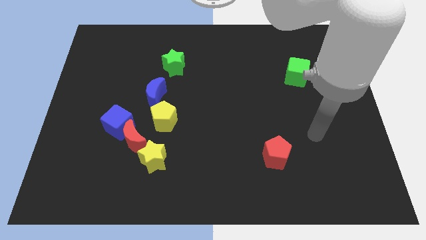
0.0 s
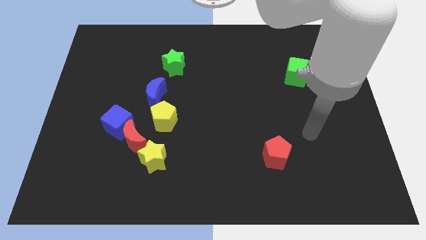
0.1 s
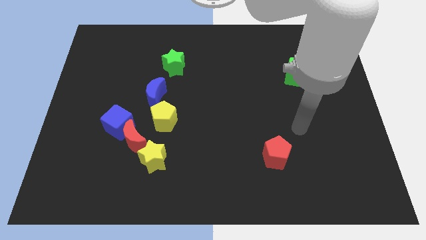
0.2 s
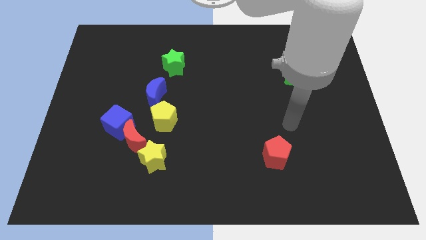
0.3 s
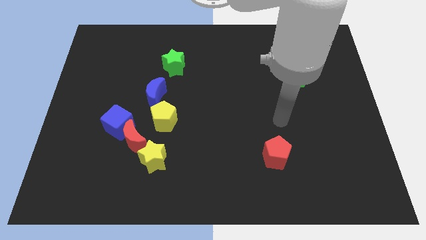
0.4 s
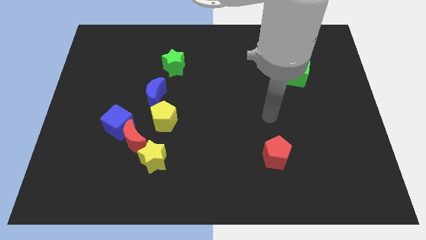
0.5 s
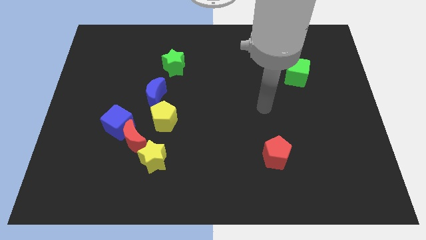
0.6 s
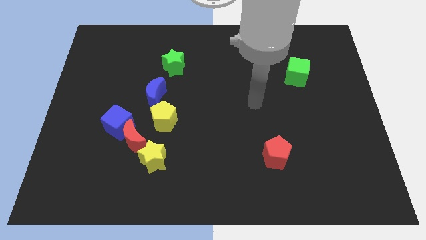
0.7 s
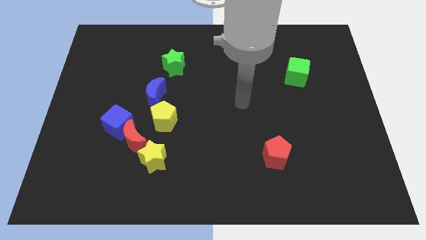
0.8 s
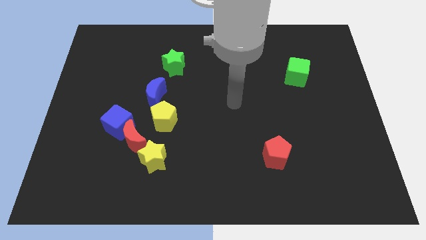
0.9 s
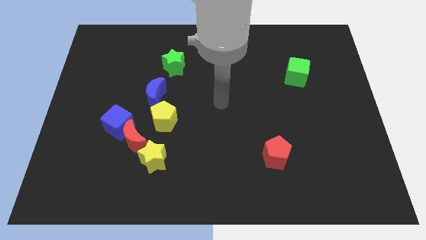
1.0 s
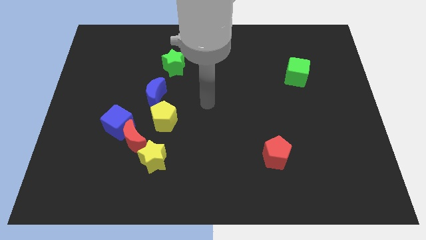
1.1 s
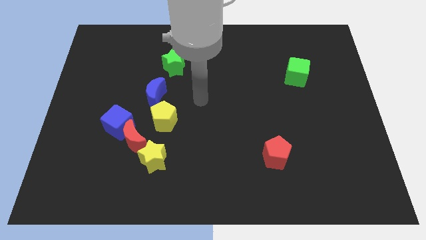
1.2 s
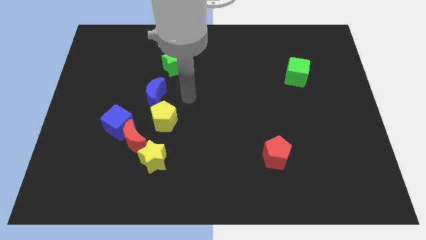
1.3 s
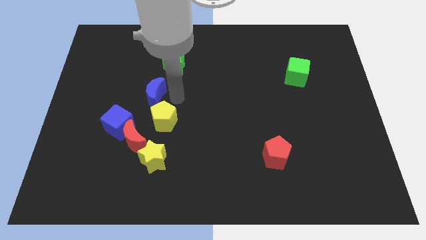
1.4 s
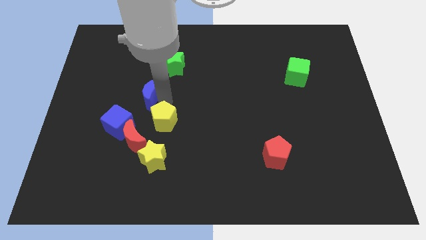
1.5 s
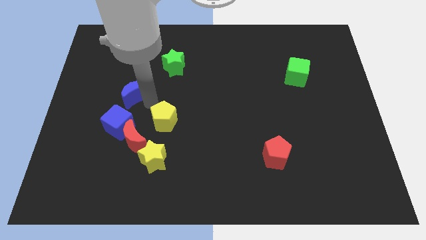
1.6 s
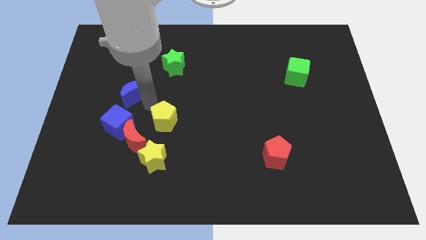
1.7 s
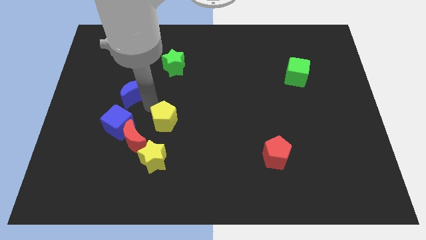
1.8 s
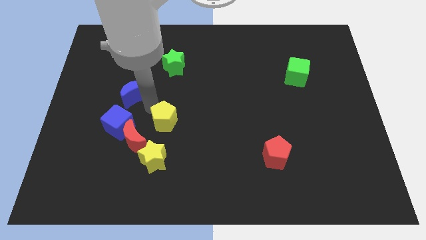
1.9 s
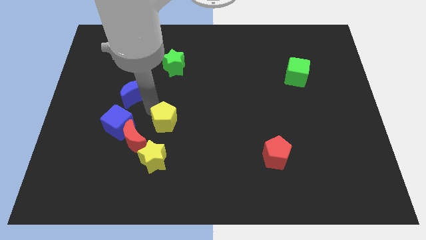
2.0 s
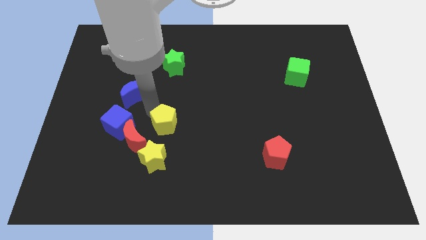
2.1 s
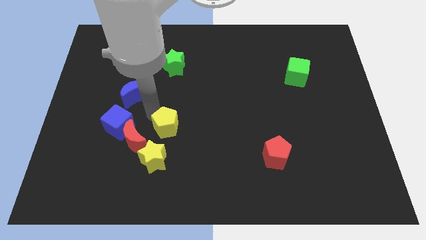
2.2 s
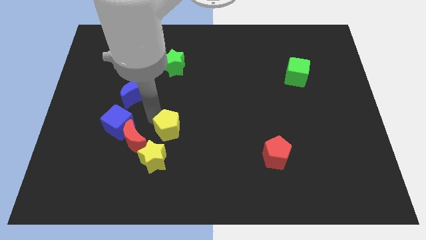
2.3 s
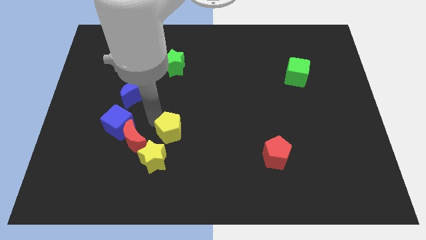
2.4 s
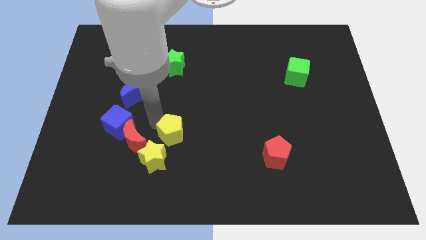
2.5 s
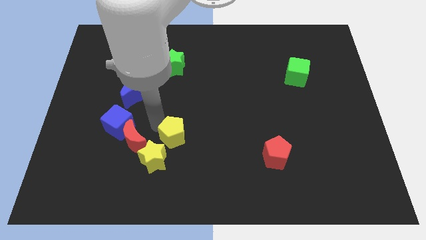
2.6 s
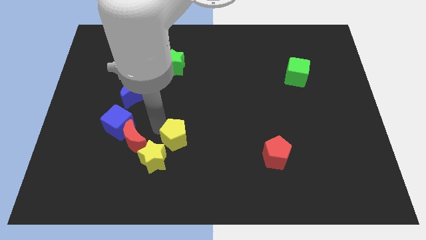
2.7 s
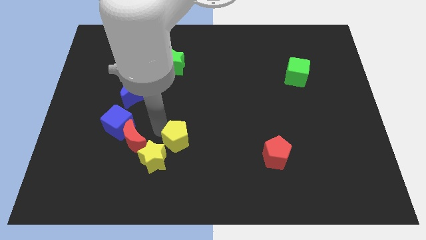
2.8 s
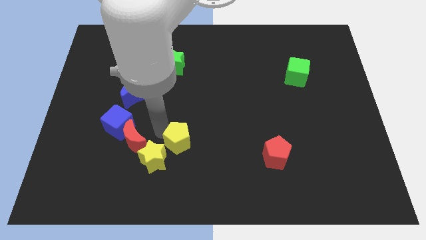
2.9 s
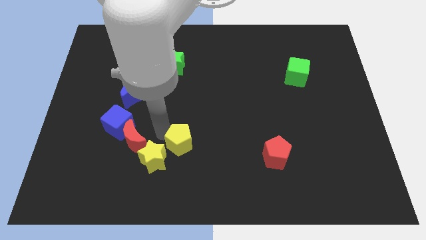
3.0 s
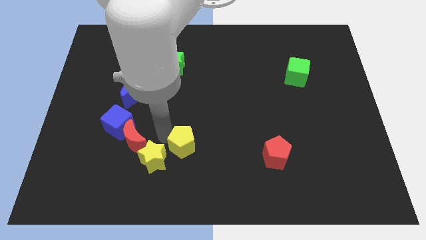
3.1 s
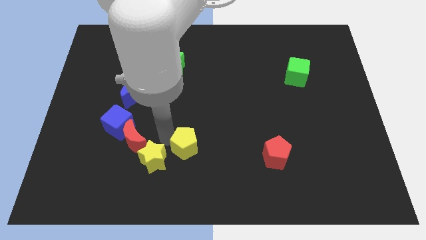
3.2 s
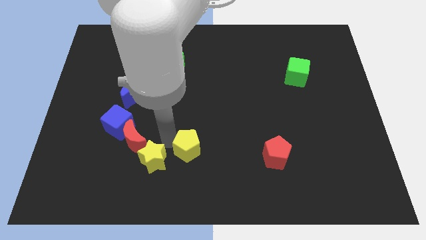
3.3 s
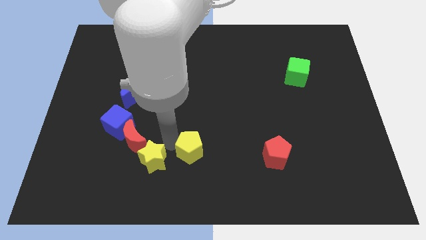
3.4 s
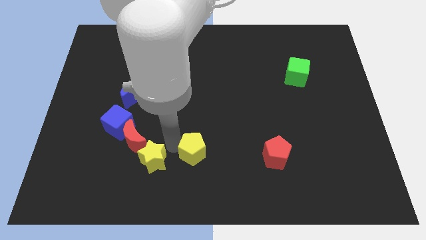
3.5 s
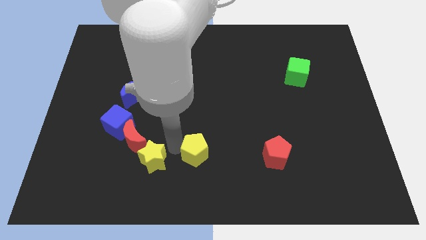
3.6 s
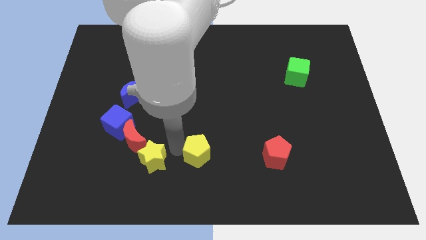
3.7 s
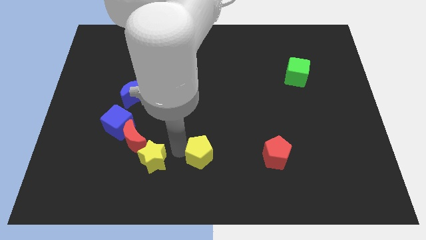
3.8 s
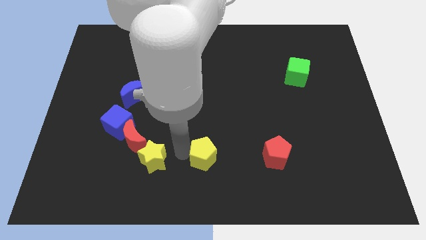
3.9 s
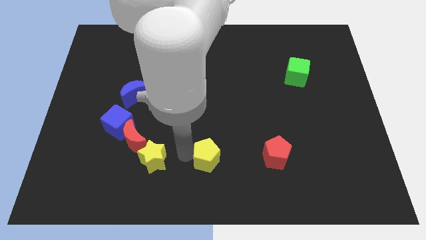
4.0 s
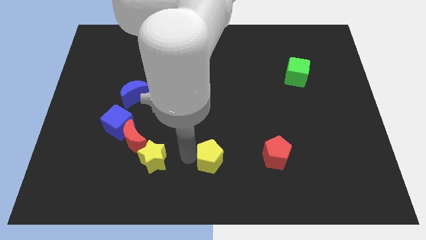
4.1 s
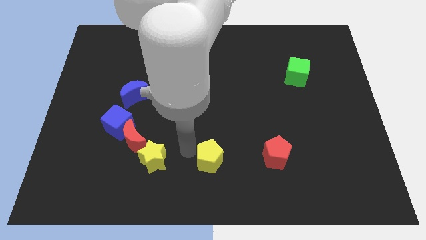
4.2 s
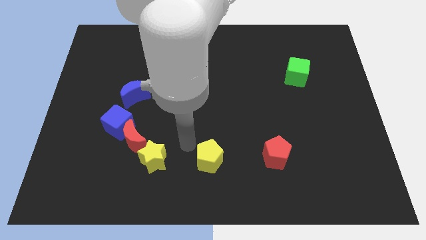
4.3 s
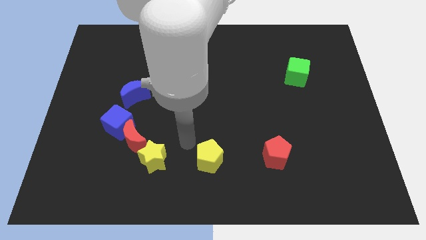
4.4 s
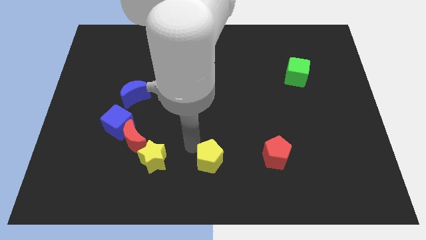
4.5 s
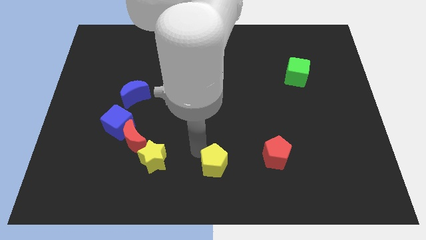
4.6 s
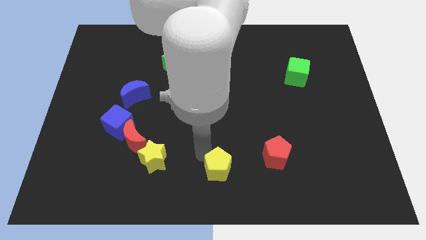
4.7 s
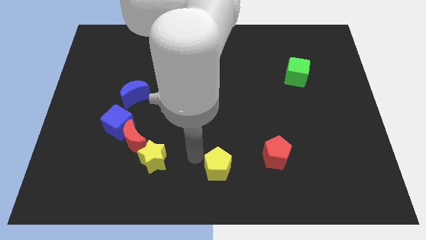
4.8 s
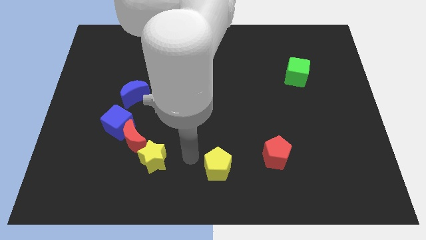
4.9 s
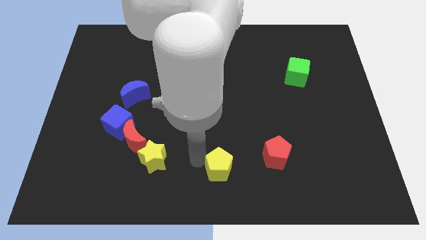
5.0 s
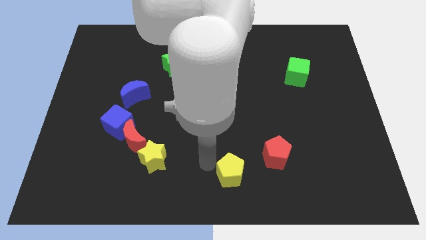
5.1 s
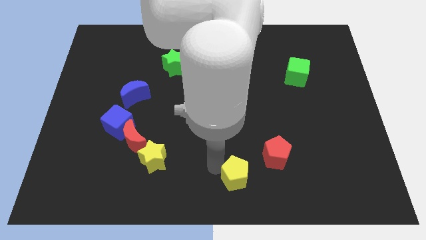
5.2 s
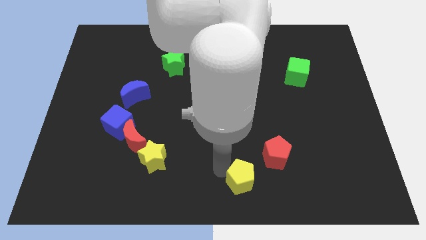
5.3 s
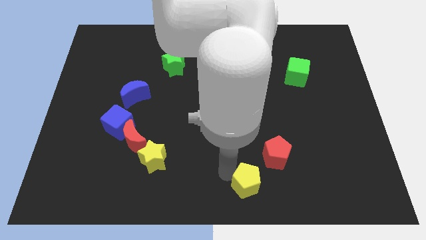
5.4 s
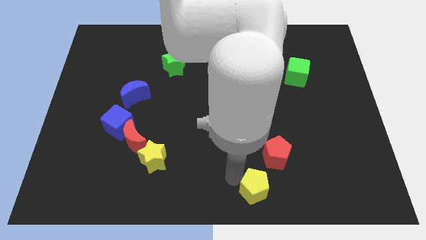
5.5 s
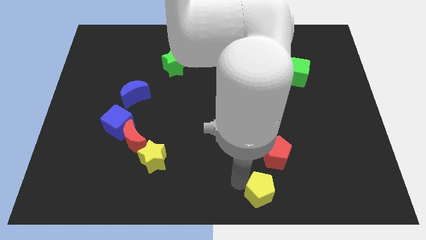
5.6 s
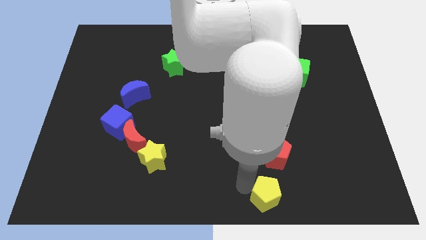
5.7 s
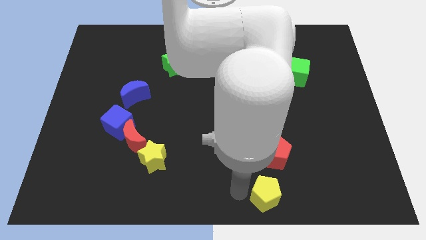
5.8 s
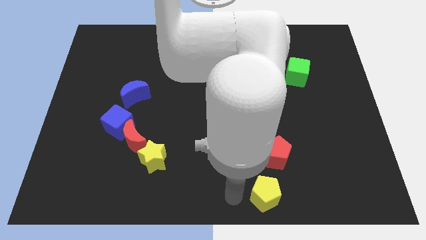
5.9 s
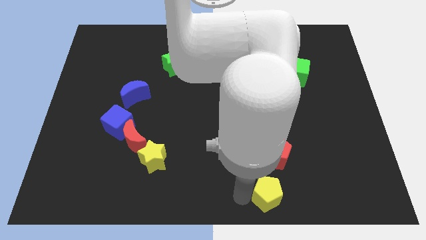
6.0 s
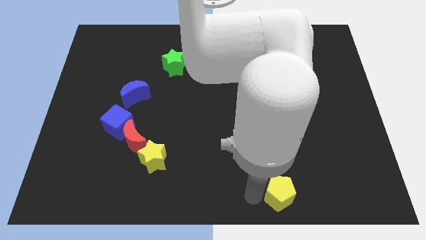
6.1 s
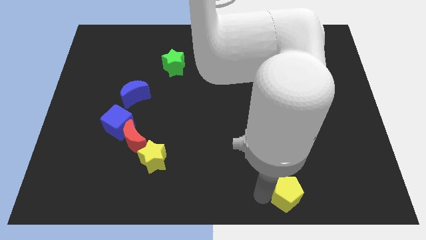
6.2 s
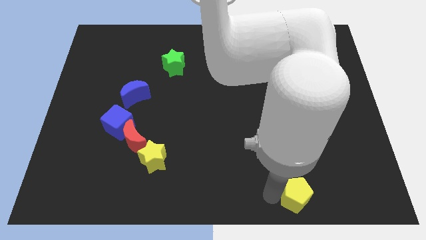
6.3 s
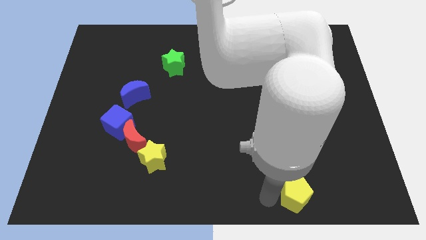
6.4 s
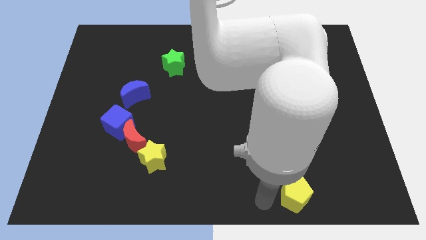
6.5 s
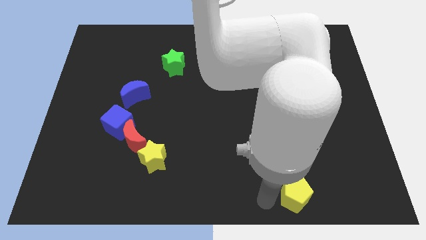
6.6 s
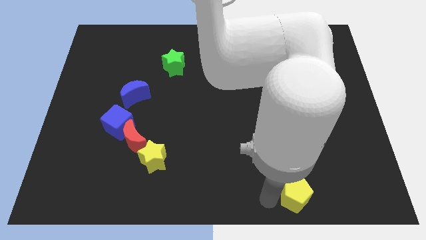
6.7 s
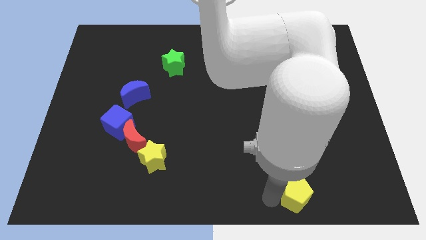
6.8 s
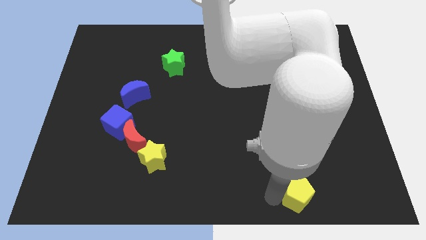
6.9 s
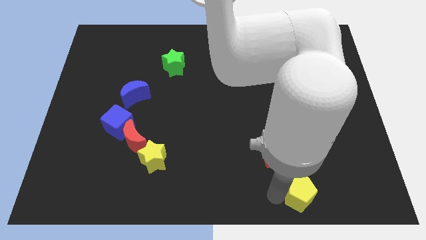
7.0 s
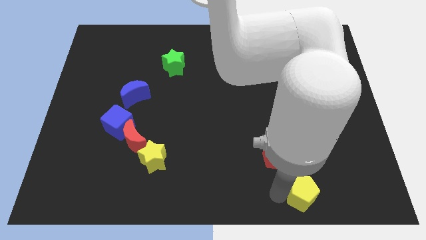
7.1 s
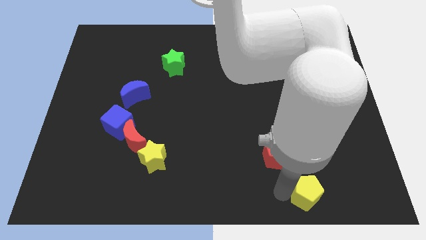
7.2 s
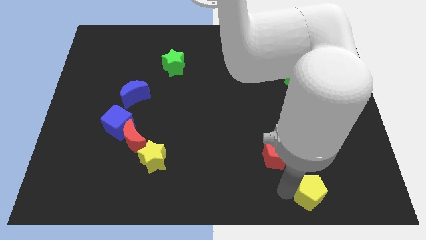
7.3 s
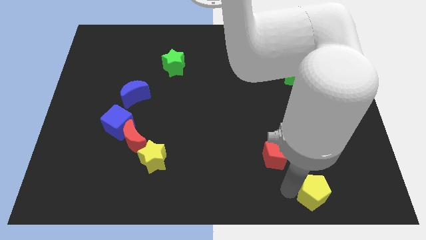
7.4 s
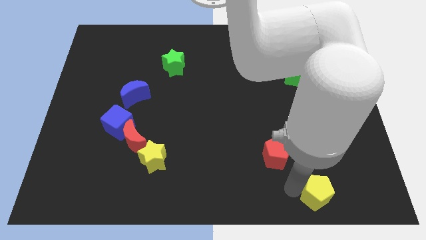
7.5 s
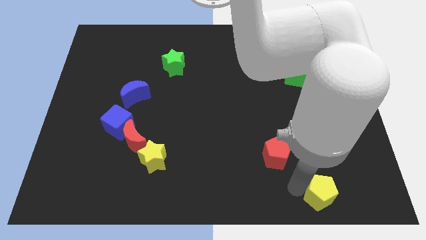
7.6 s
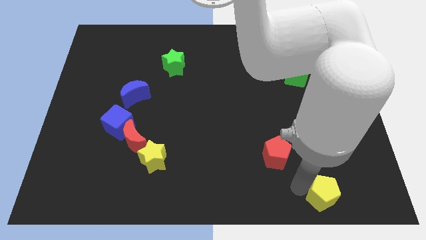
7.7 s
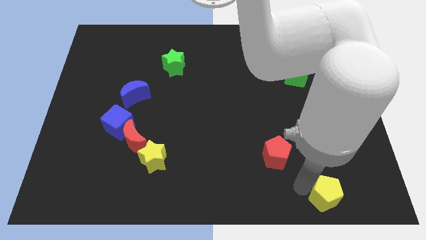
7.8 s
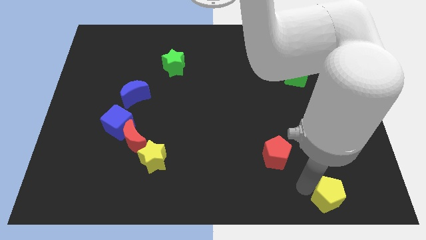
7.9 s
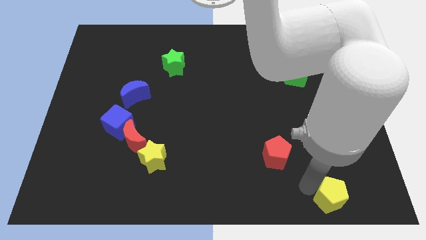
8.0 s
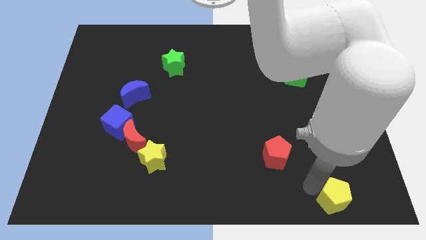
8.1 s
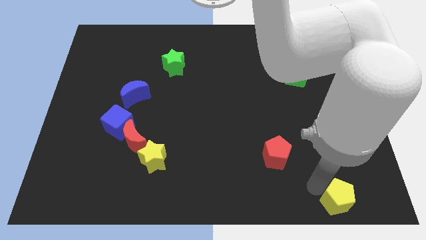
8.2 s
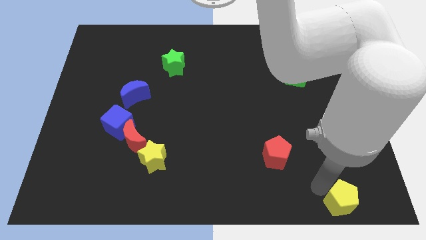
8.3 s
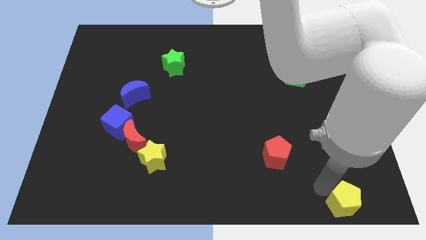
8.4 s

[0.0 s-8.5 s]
move the yellow pentagon to the lower right corner
